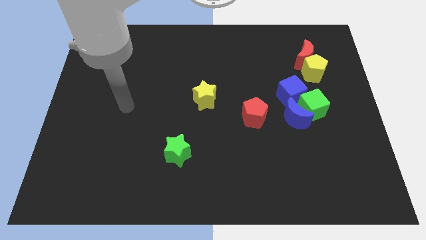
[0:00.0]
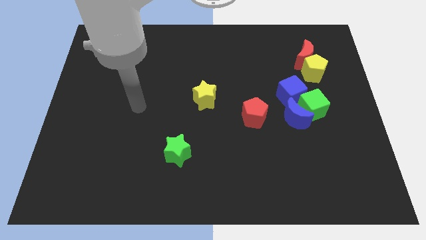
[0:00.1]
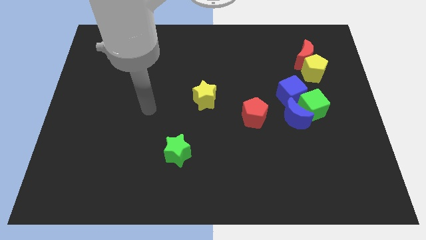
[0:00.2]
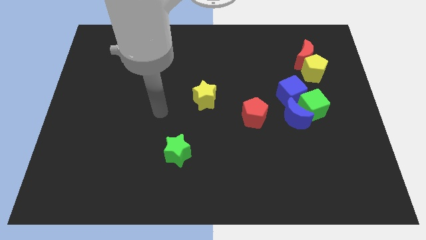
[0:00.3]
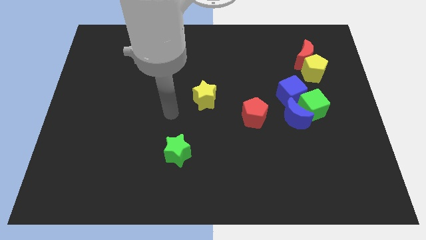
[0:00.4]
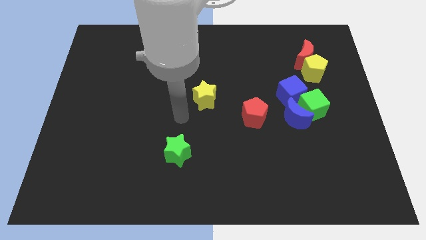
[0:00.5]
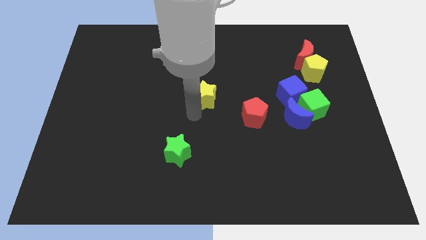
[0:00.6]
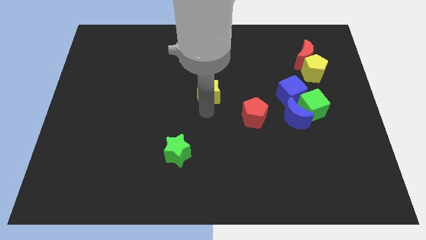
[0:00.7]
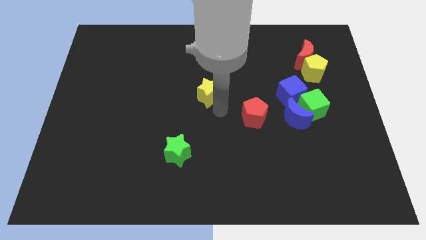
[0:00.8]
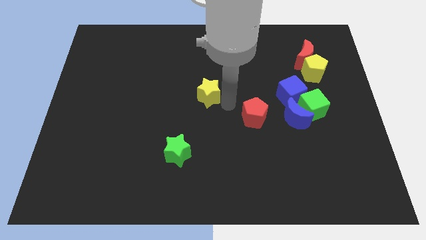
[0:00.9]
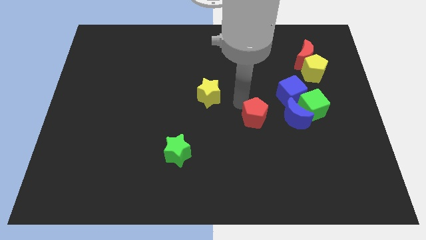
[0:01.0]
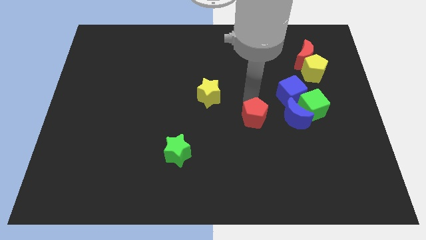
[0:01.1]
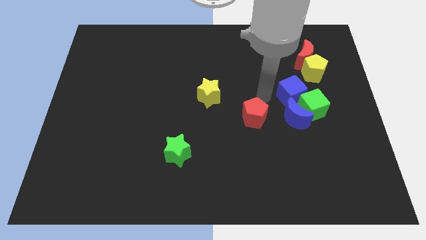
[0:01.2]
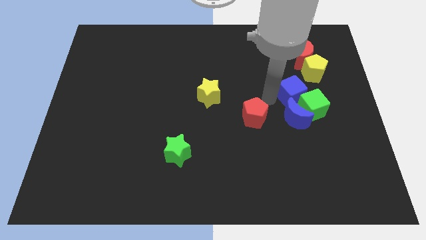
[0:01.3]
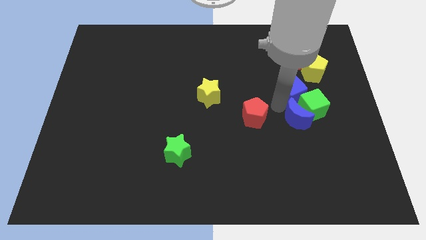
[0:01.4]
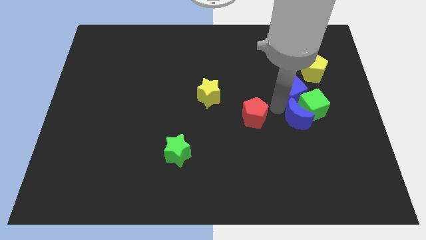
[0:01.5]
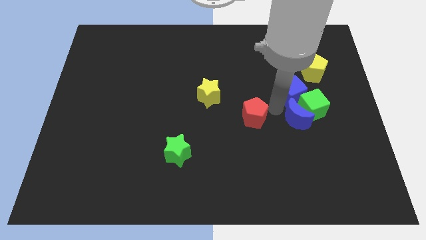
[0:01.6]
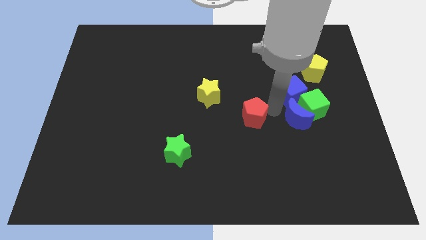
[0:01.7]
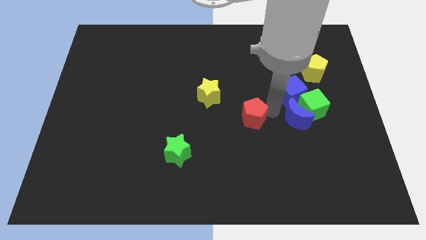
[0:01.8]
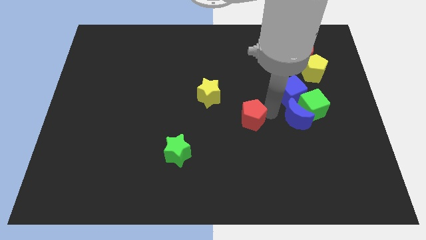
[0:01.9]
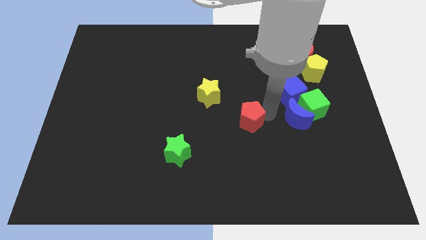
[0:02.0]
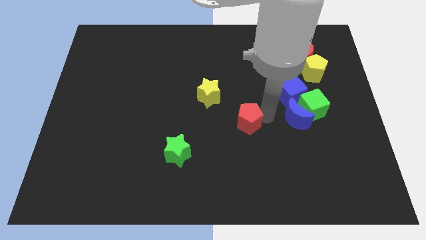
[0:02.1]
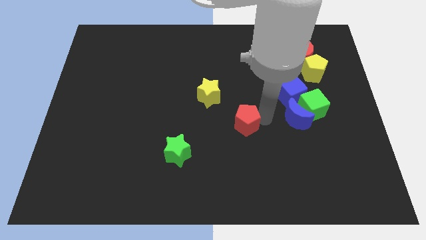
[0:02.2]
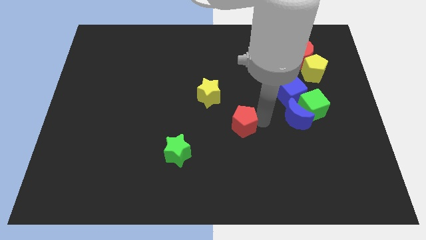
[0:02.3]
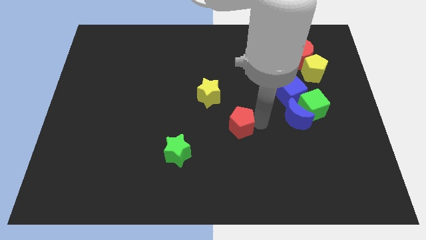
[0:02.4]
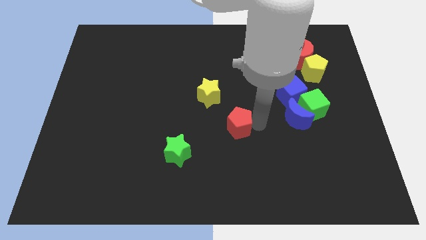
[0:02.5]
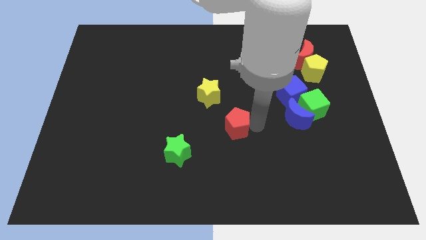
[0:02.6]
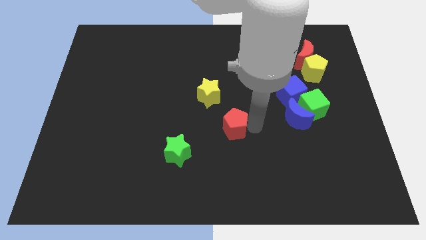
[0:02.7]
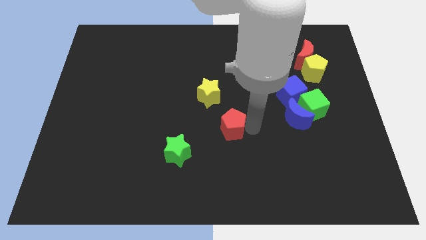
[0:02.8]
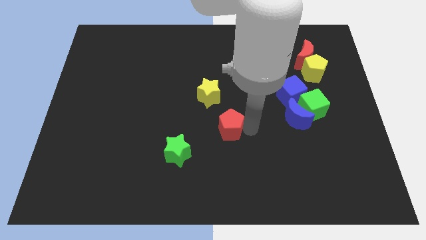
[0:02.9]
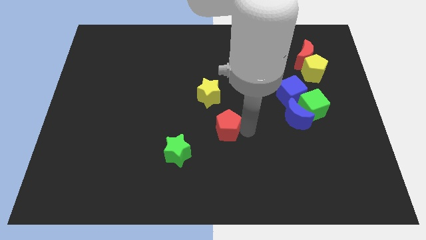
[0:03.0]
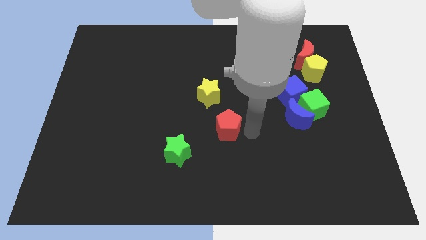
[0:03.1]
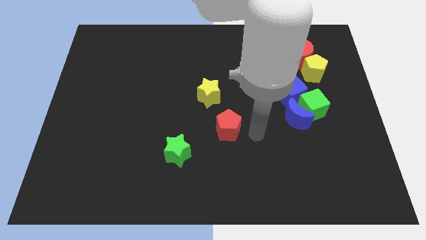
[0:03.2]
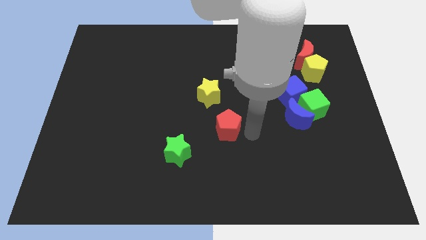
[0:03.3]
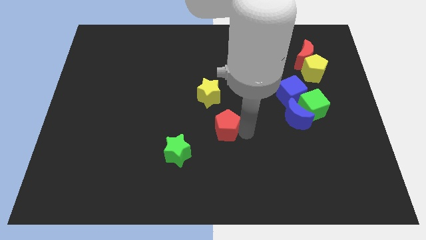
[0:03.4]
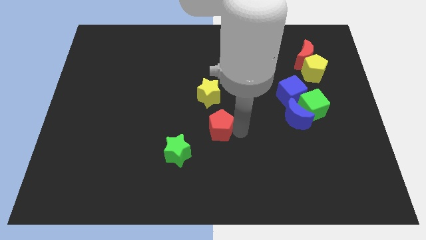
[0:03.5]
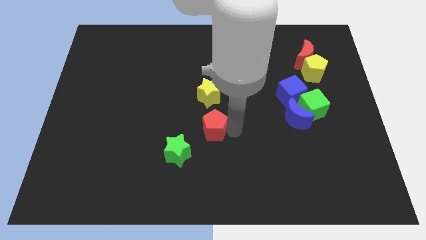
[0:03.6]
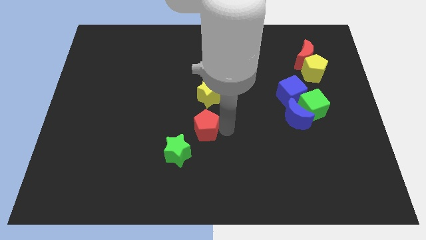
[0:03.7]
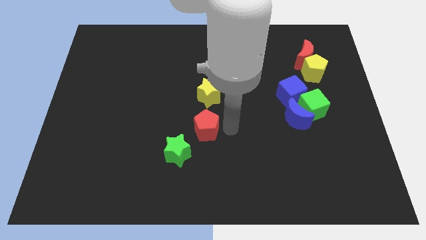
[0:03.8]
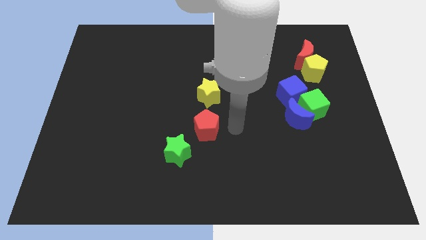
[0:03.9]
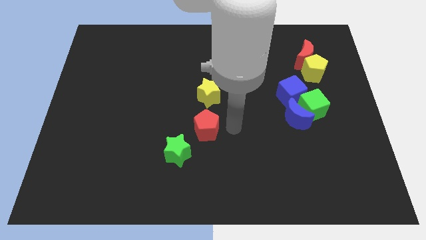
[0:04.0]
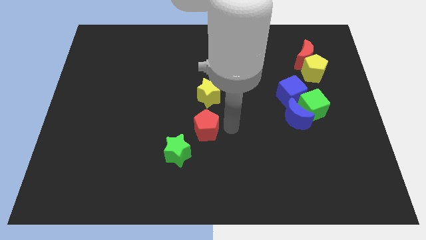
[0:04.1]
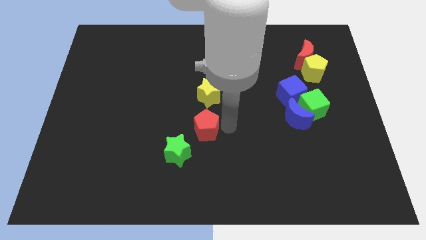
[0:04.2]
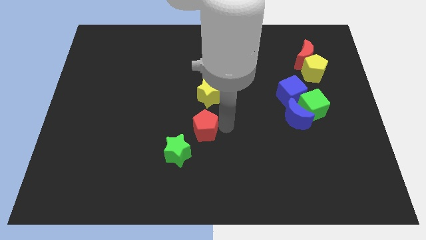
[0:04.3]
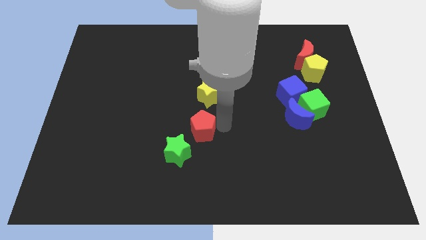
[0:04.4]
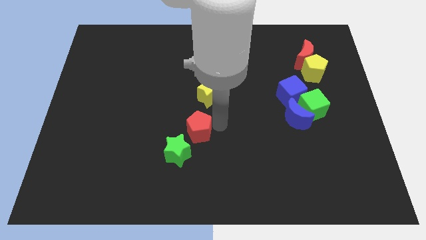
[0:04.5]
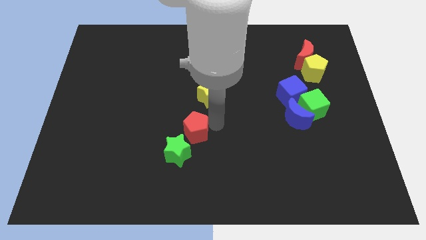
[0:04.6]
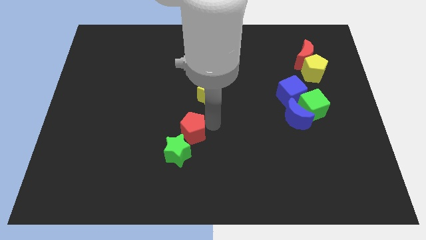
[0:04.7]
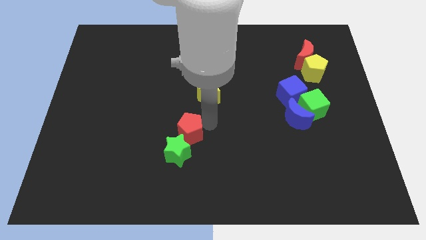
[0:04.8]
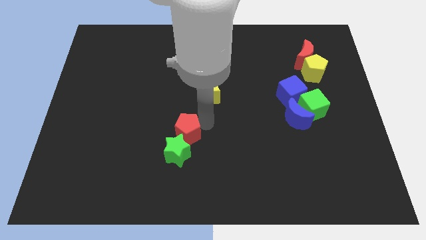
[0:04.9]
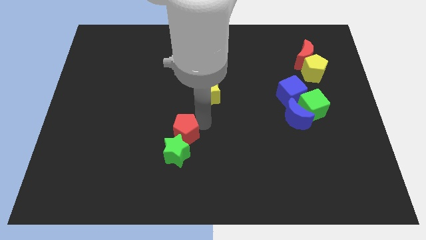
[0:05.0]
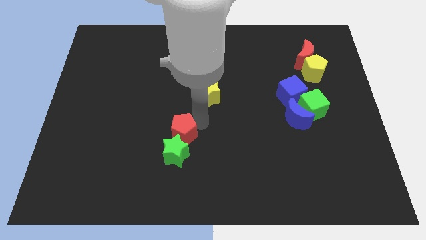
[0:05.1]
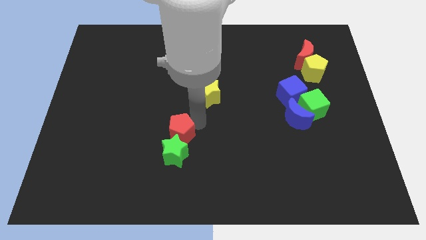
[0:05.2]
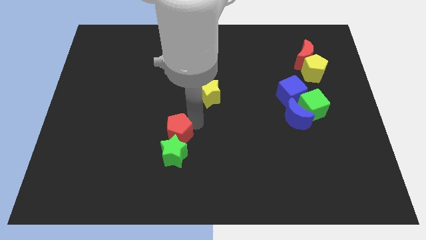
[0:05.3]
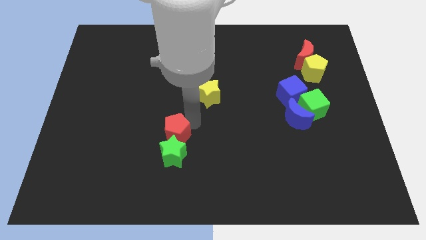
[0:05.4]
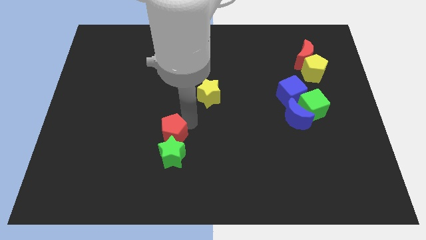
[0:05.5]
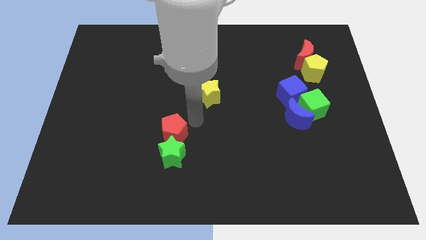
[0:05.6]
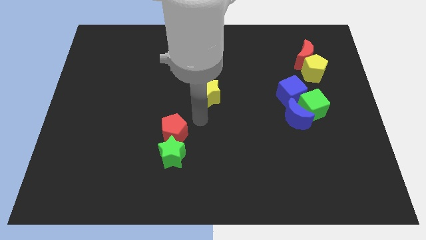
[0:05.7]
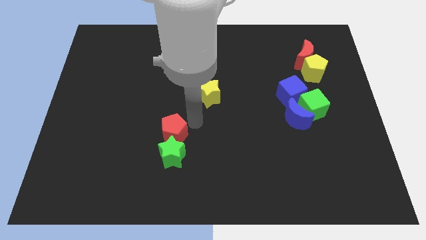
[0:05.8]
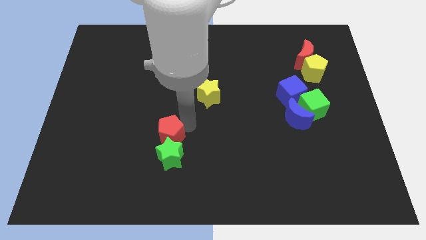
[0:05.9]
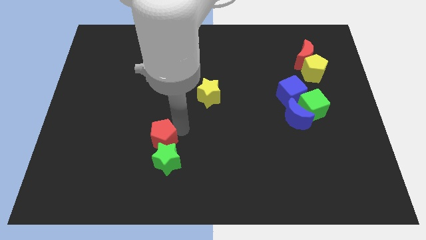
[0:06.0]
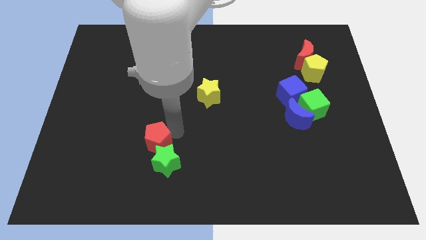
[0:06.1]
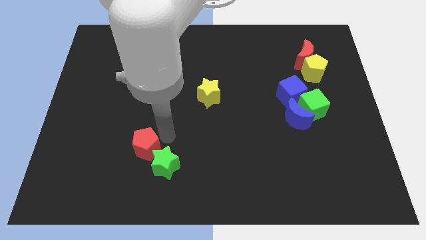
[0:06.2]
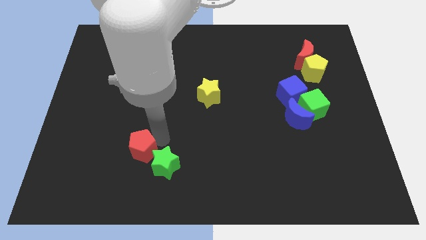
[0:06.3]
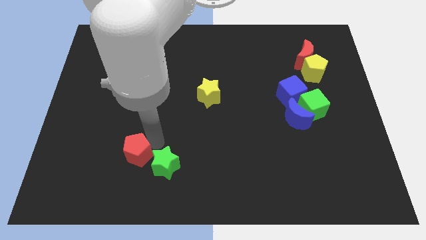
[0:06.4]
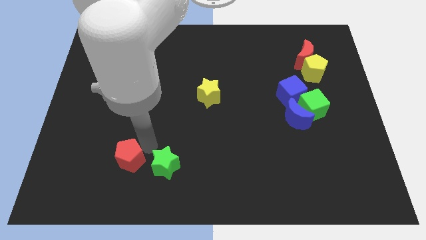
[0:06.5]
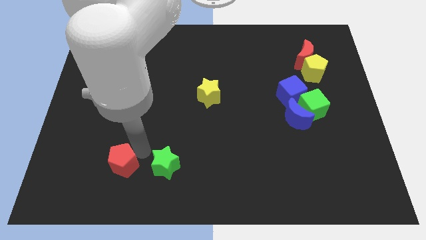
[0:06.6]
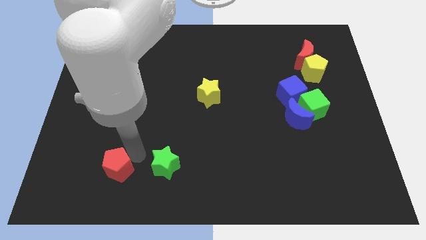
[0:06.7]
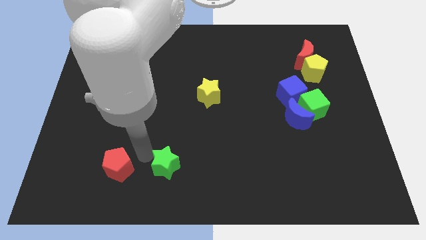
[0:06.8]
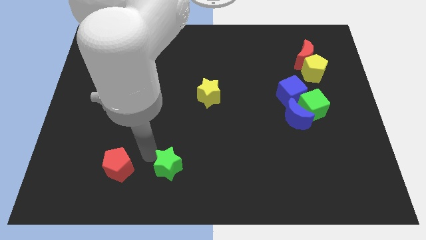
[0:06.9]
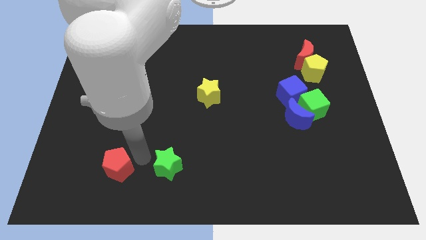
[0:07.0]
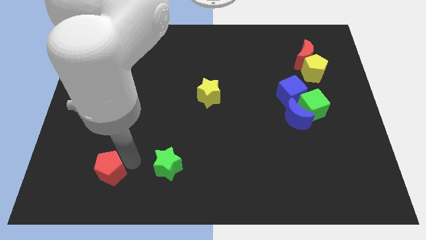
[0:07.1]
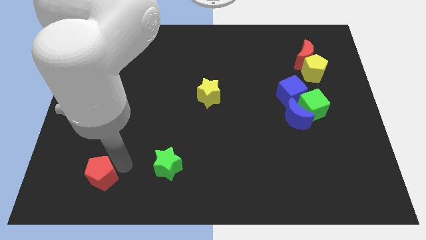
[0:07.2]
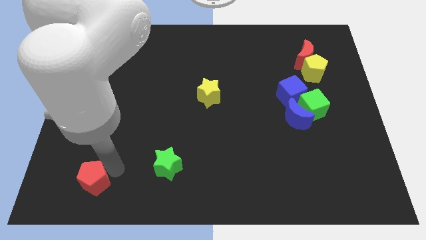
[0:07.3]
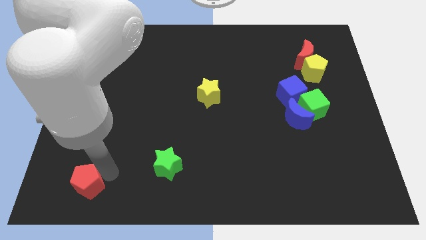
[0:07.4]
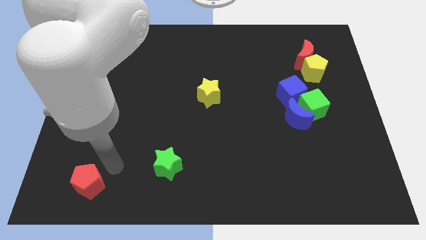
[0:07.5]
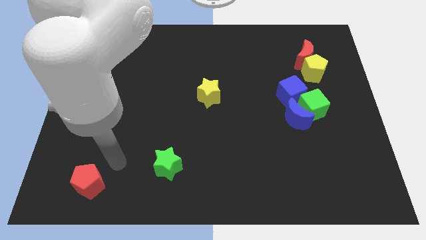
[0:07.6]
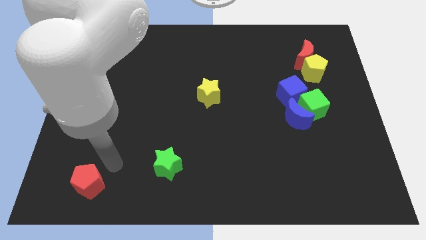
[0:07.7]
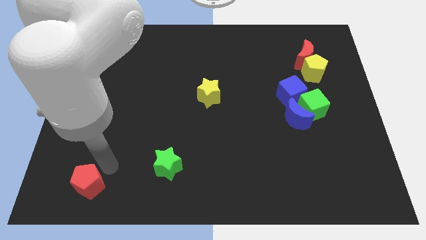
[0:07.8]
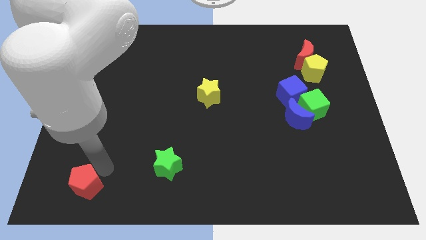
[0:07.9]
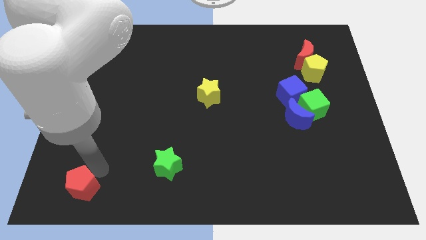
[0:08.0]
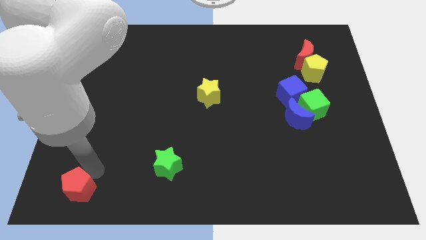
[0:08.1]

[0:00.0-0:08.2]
push the red pentagon to the bottom left
